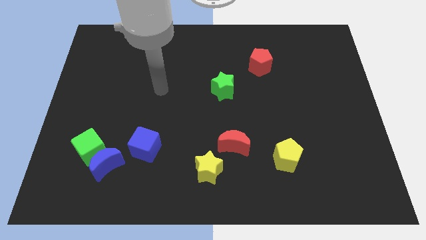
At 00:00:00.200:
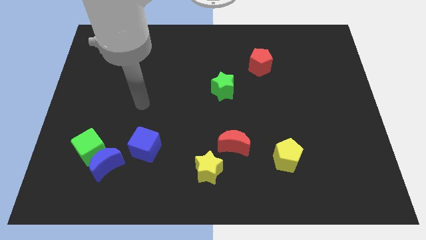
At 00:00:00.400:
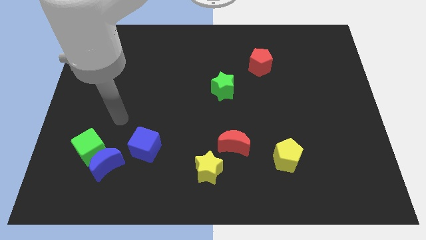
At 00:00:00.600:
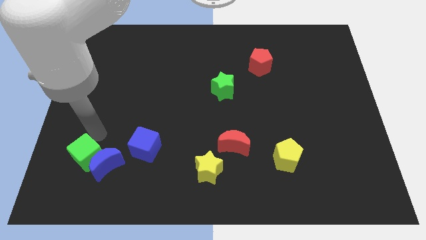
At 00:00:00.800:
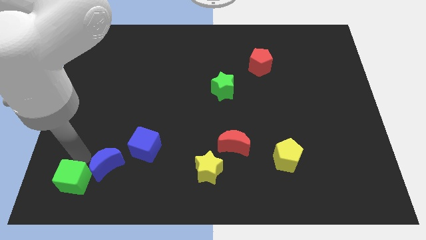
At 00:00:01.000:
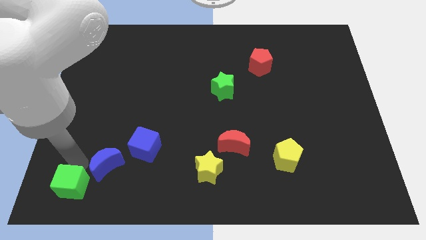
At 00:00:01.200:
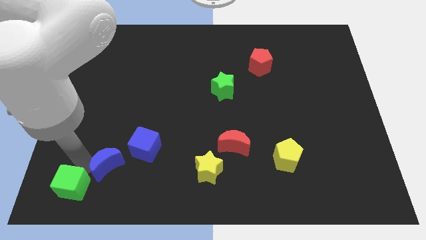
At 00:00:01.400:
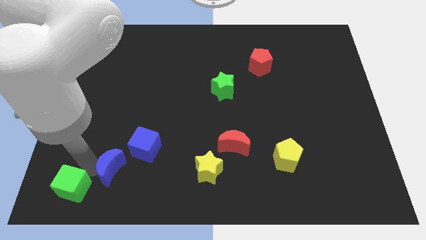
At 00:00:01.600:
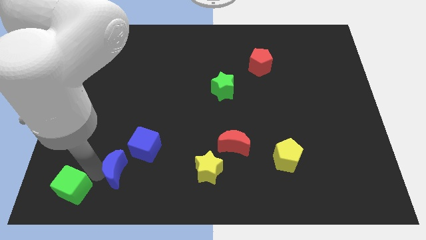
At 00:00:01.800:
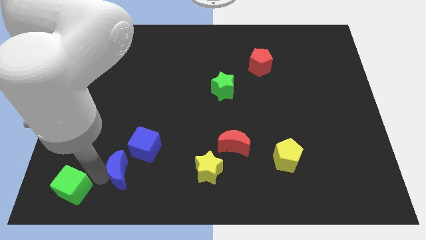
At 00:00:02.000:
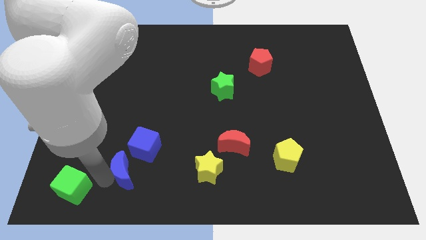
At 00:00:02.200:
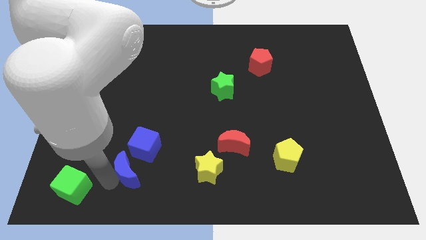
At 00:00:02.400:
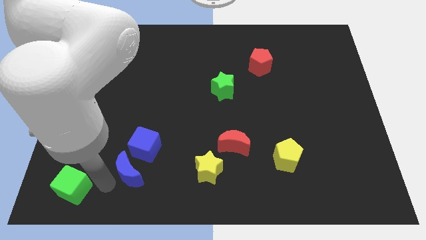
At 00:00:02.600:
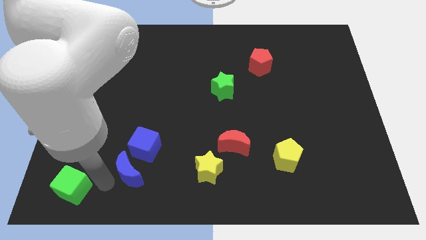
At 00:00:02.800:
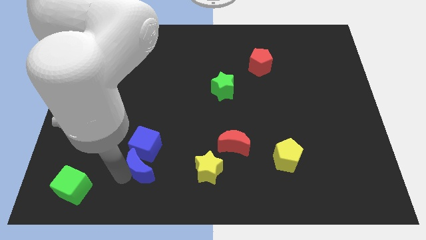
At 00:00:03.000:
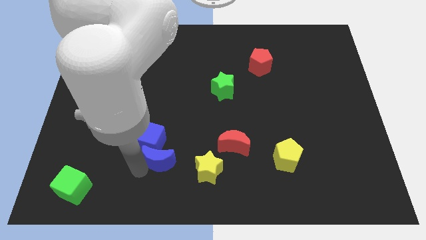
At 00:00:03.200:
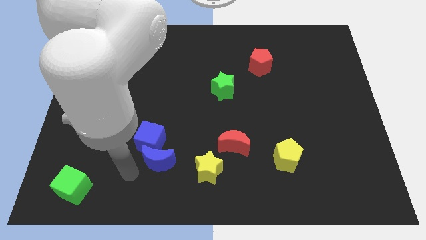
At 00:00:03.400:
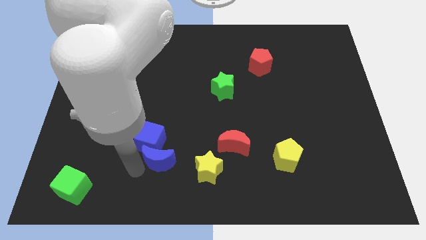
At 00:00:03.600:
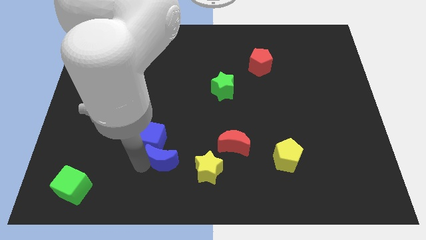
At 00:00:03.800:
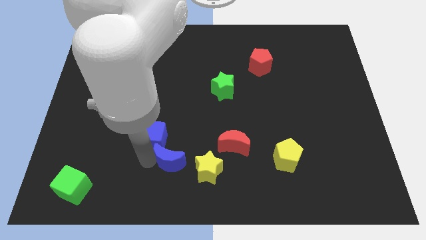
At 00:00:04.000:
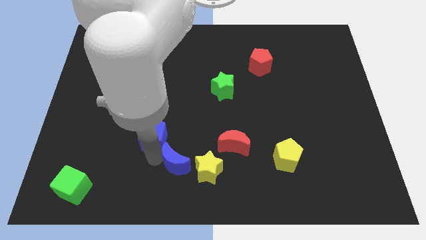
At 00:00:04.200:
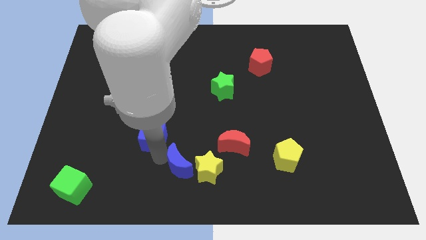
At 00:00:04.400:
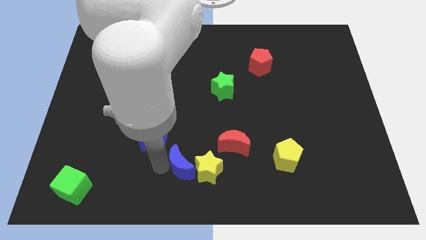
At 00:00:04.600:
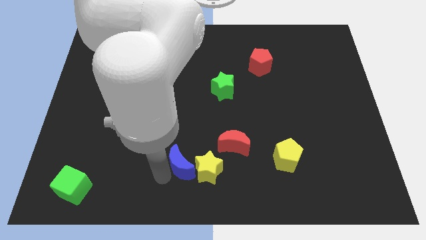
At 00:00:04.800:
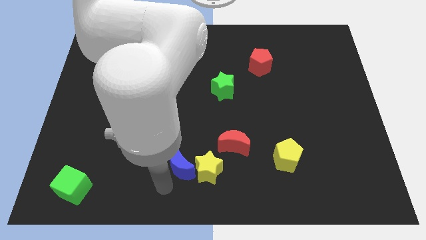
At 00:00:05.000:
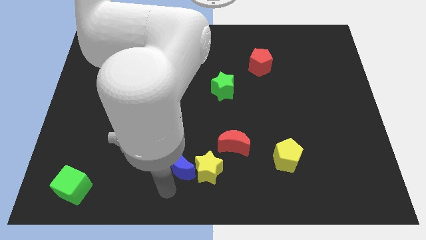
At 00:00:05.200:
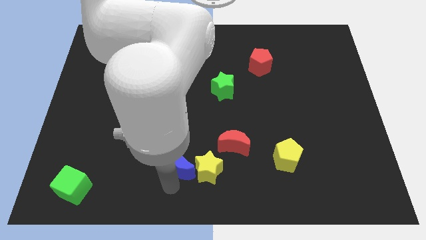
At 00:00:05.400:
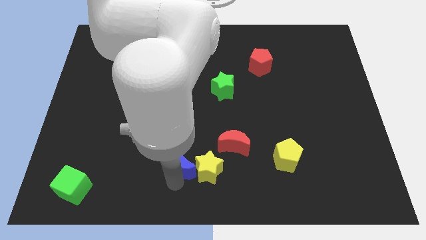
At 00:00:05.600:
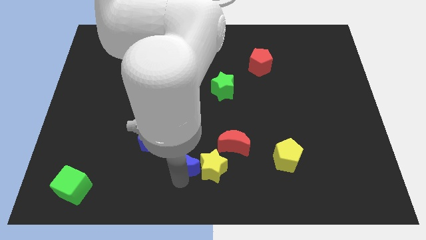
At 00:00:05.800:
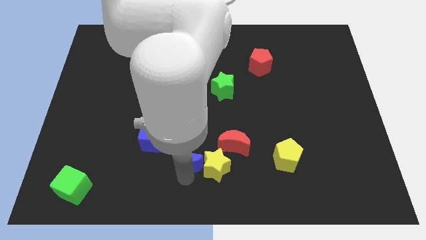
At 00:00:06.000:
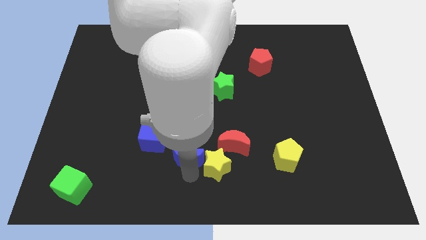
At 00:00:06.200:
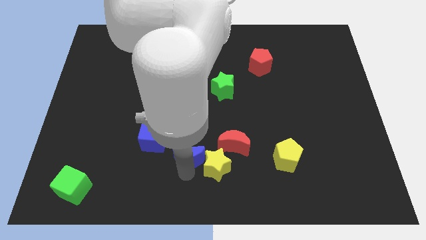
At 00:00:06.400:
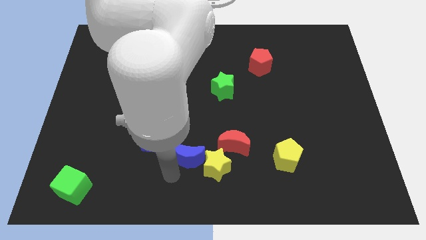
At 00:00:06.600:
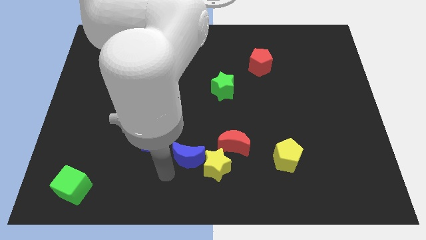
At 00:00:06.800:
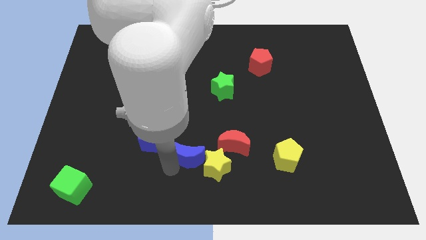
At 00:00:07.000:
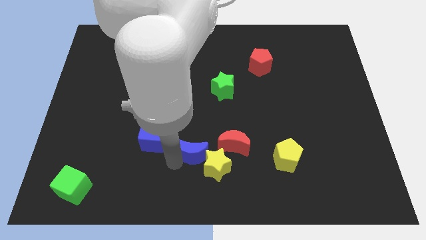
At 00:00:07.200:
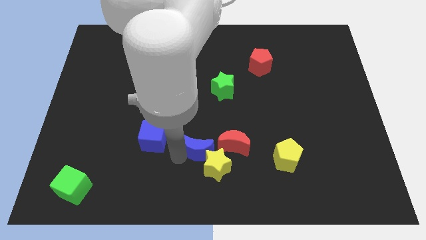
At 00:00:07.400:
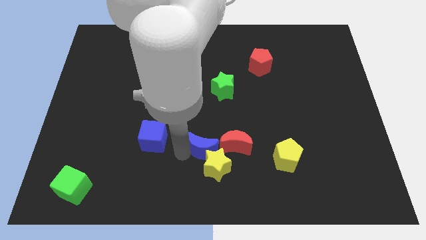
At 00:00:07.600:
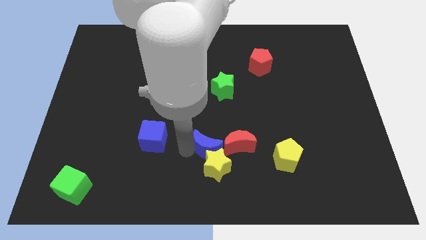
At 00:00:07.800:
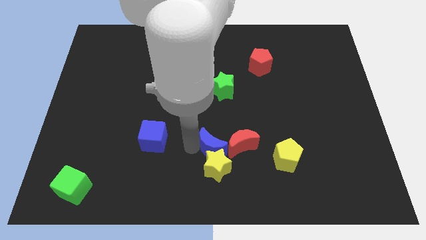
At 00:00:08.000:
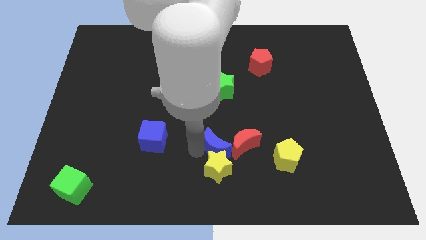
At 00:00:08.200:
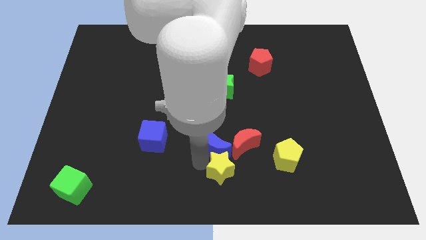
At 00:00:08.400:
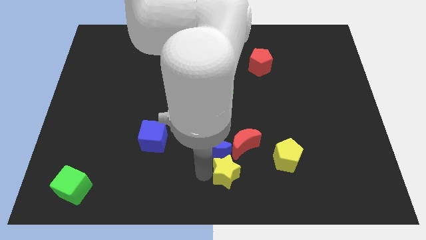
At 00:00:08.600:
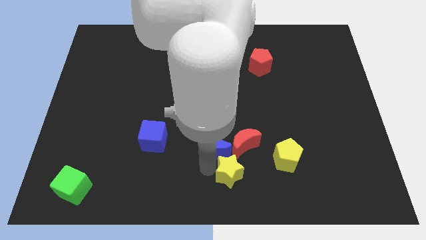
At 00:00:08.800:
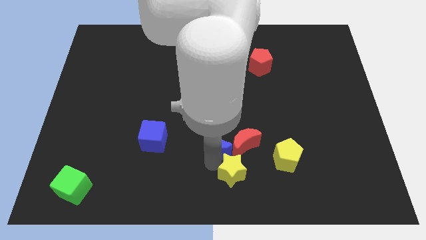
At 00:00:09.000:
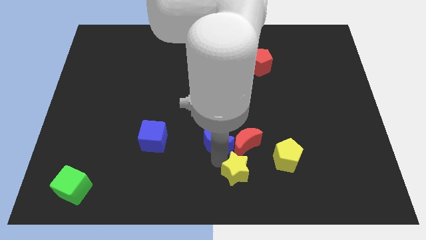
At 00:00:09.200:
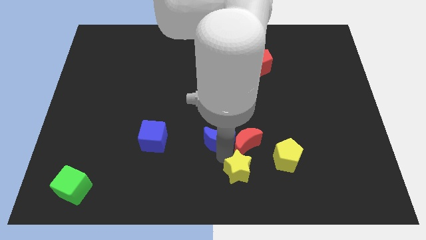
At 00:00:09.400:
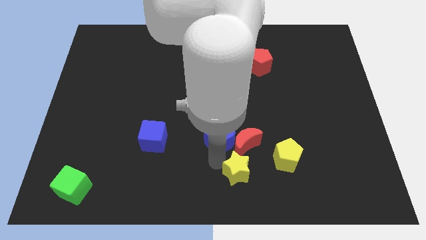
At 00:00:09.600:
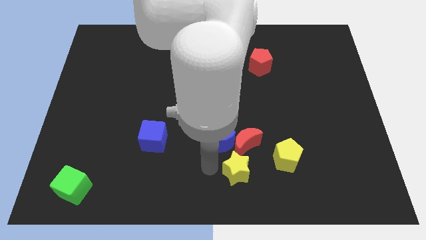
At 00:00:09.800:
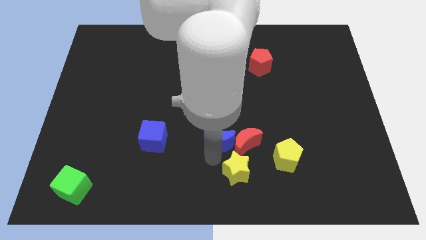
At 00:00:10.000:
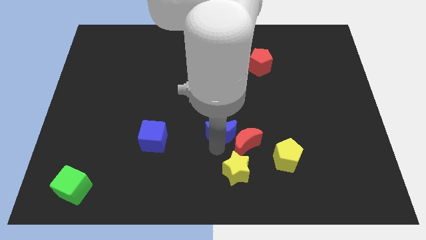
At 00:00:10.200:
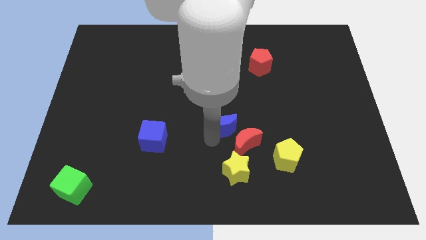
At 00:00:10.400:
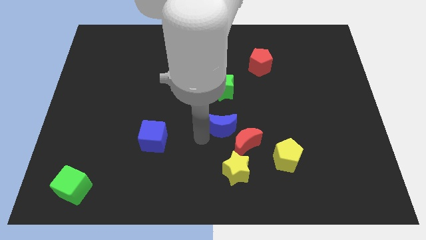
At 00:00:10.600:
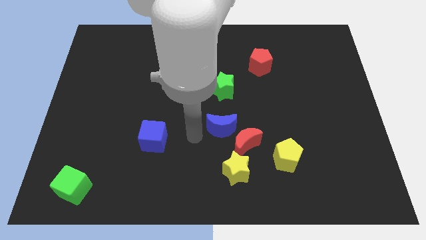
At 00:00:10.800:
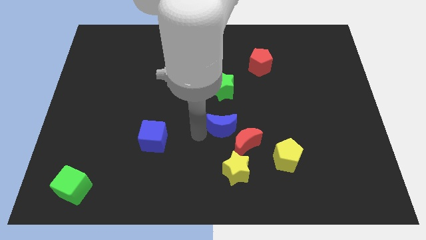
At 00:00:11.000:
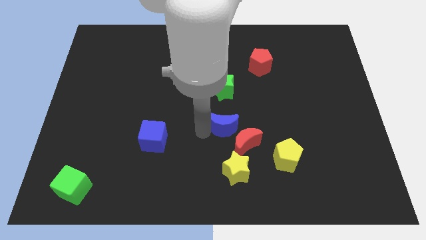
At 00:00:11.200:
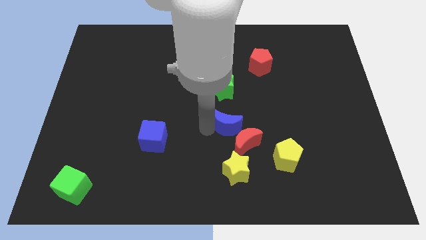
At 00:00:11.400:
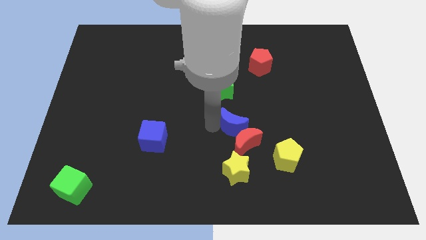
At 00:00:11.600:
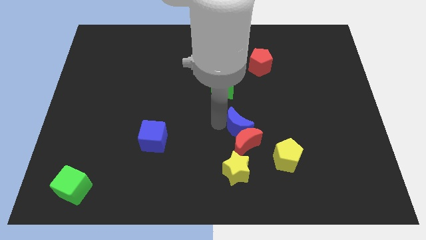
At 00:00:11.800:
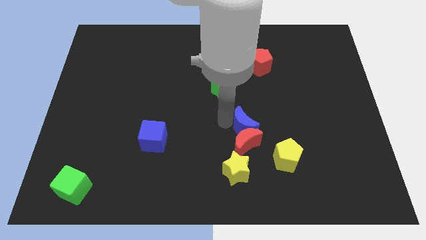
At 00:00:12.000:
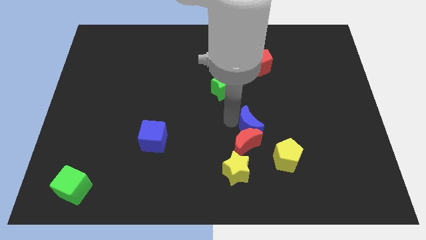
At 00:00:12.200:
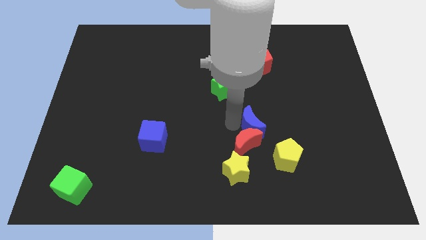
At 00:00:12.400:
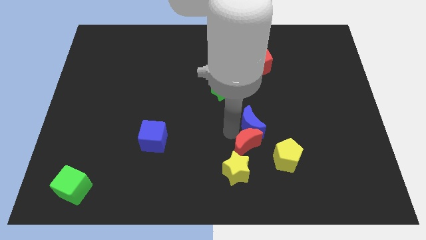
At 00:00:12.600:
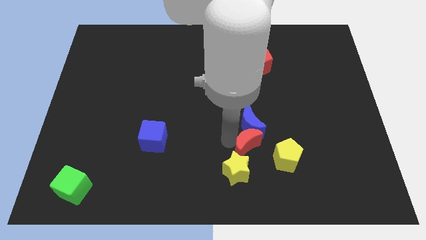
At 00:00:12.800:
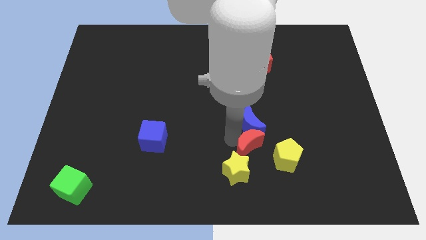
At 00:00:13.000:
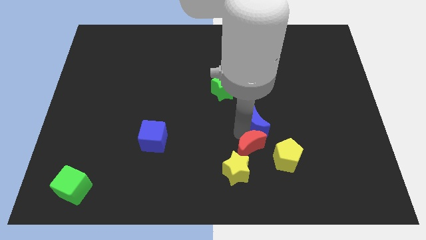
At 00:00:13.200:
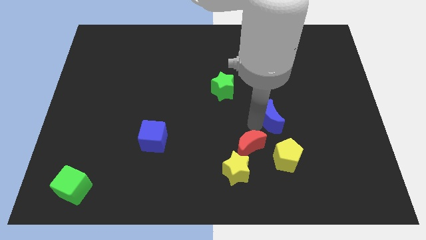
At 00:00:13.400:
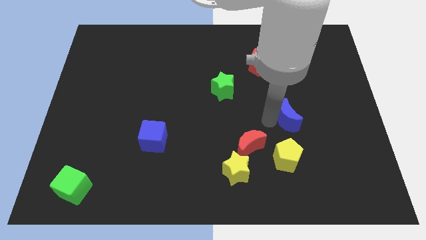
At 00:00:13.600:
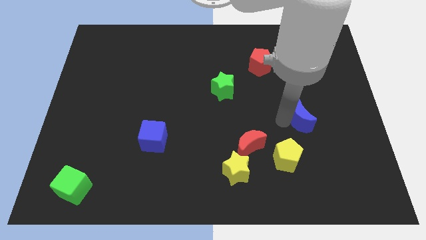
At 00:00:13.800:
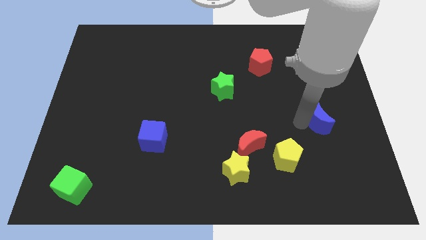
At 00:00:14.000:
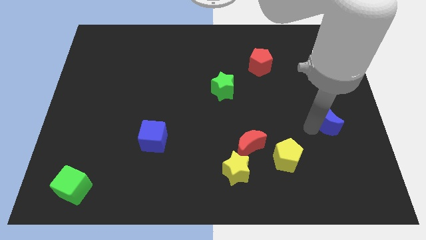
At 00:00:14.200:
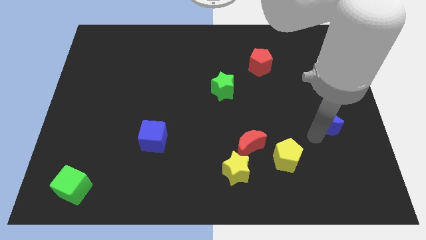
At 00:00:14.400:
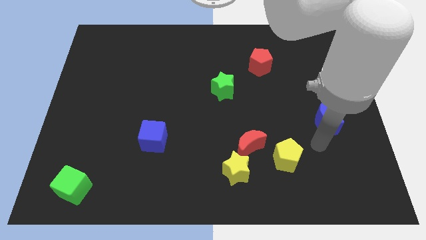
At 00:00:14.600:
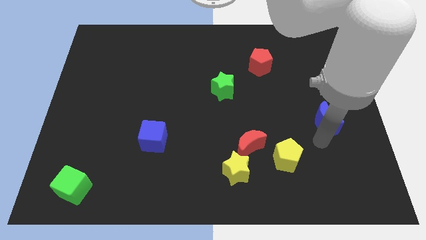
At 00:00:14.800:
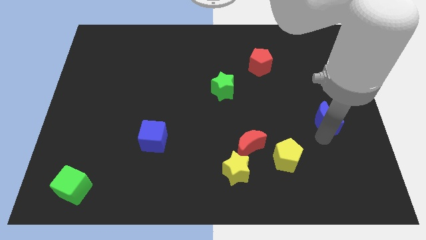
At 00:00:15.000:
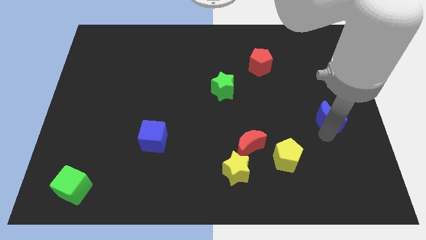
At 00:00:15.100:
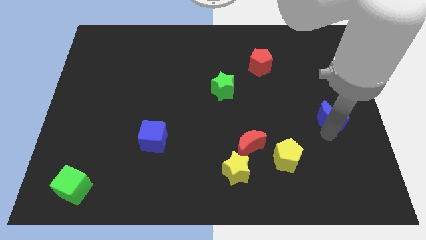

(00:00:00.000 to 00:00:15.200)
move the blue moon to the right side of the board
